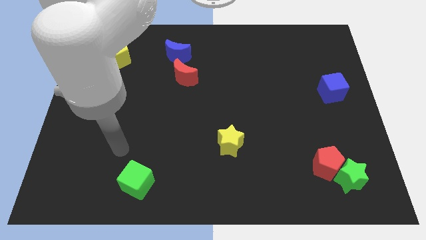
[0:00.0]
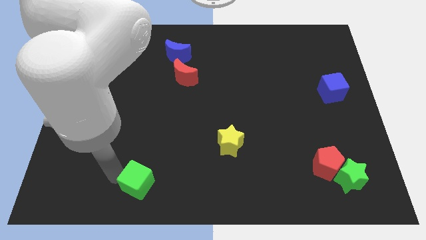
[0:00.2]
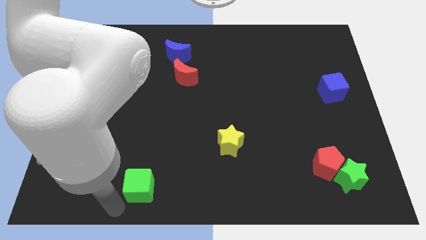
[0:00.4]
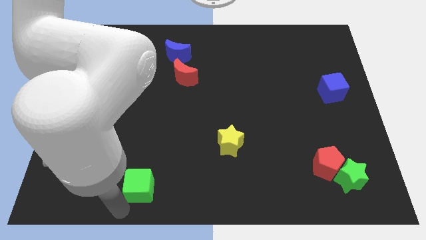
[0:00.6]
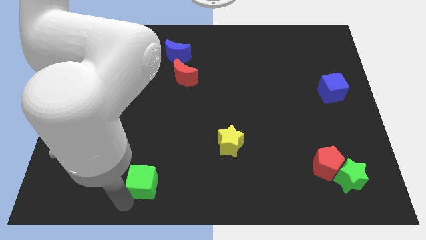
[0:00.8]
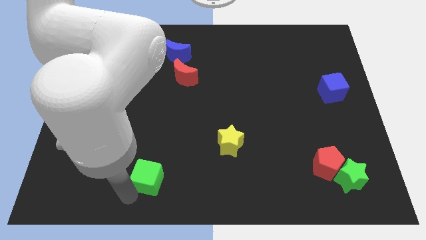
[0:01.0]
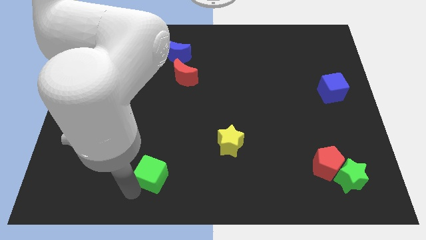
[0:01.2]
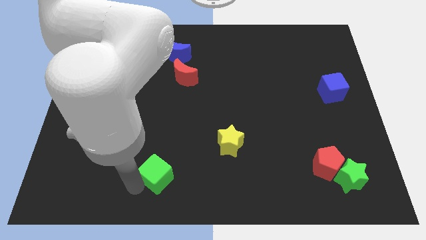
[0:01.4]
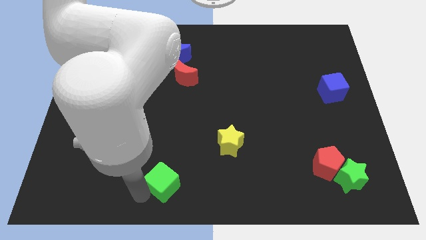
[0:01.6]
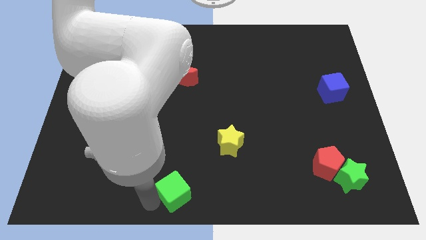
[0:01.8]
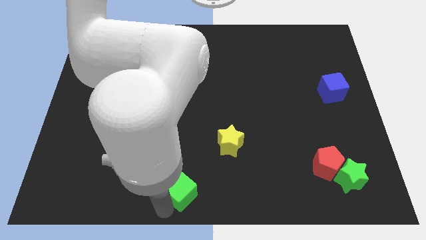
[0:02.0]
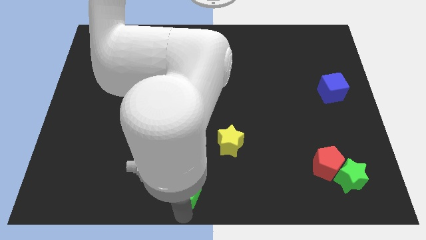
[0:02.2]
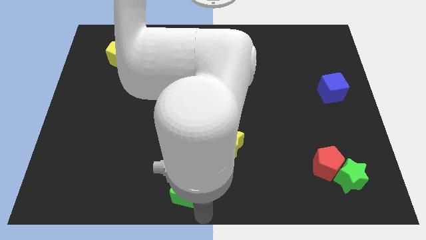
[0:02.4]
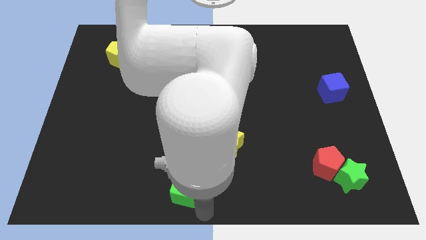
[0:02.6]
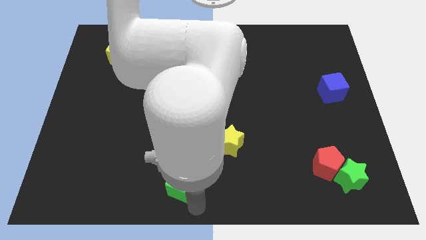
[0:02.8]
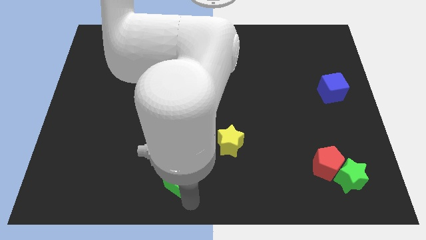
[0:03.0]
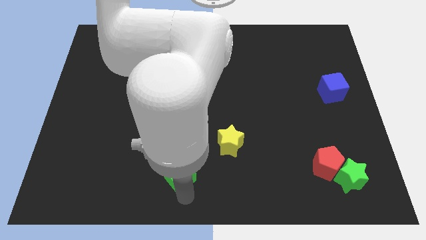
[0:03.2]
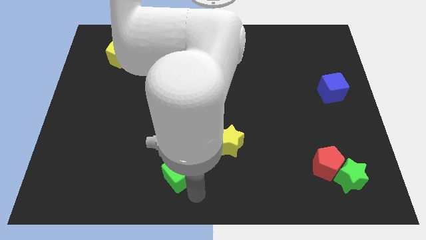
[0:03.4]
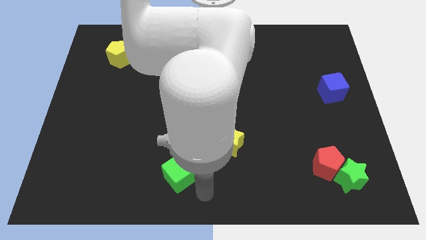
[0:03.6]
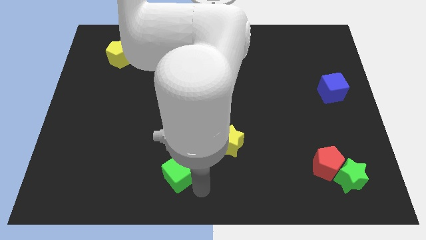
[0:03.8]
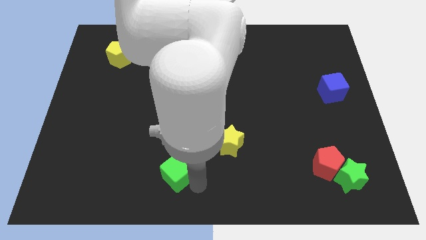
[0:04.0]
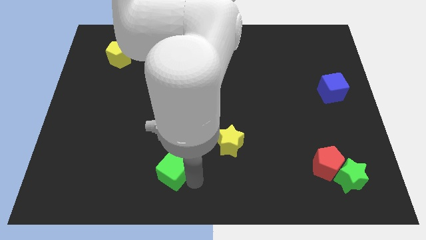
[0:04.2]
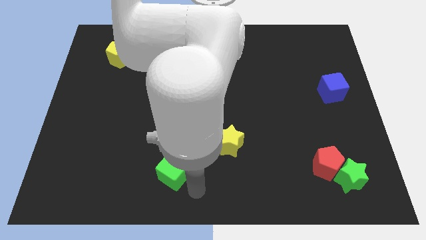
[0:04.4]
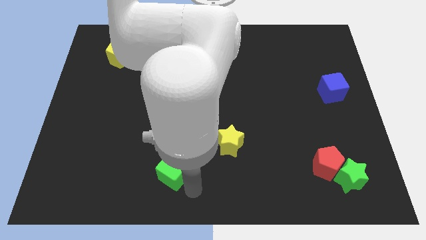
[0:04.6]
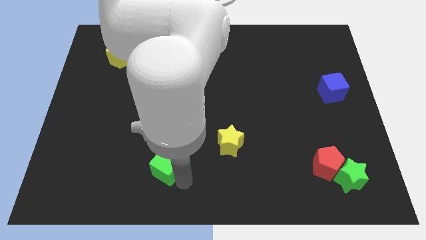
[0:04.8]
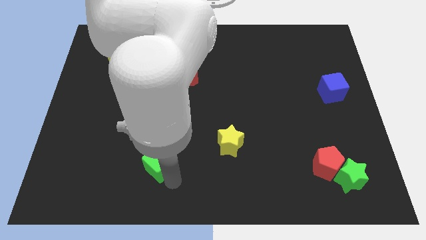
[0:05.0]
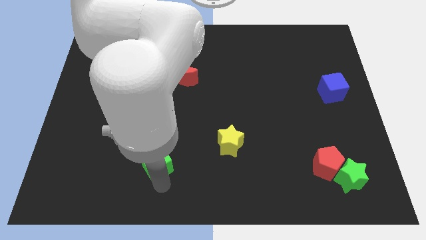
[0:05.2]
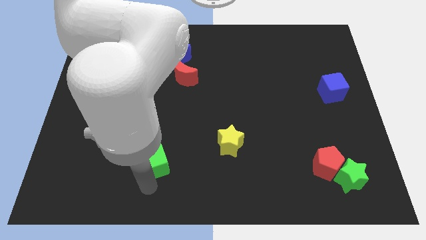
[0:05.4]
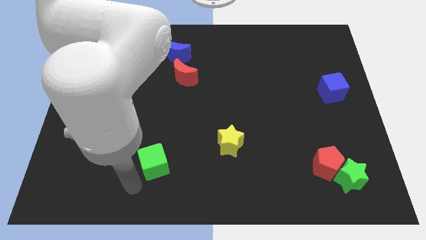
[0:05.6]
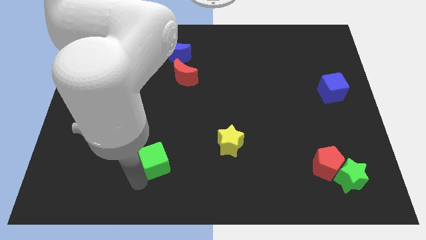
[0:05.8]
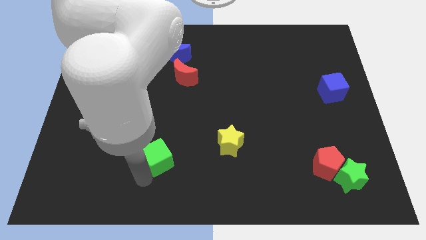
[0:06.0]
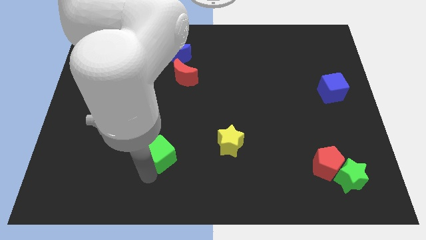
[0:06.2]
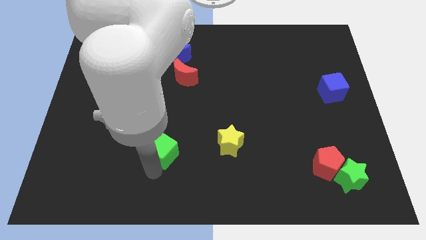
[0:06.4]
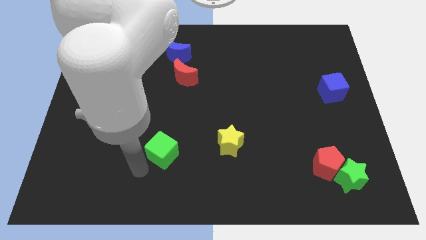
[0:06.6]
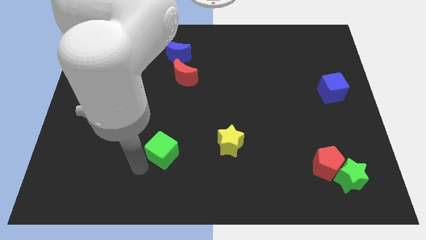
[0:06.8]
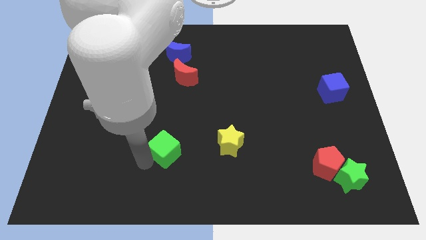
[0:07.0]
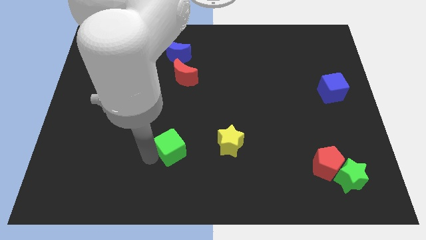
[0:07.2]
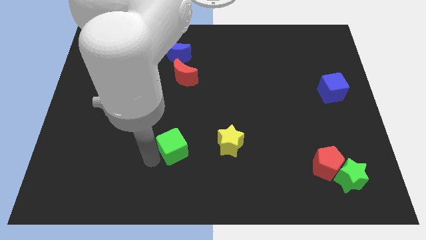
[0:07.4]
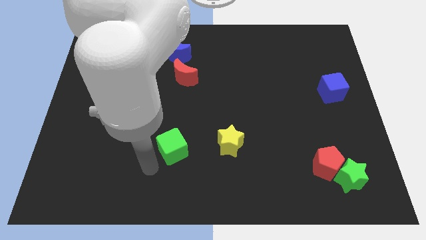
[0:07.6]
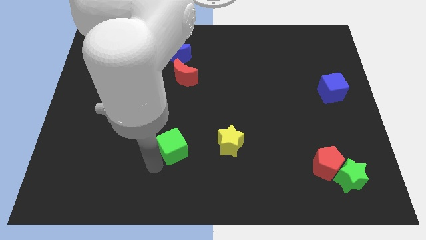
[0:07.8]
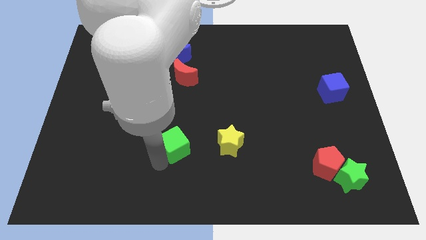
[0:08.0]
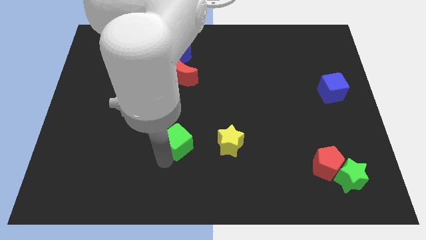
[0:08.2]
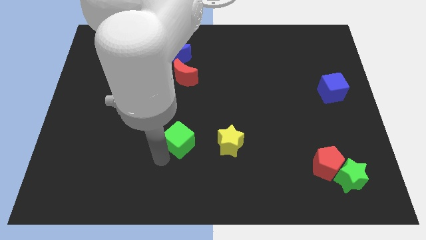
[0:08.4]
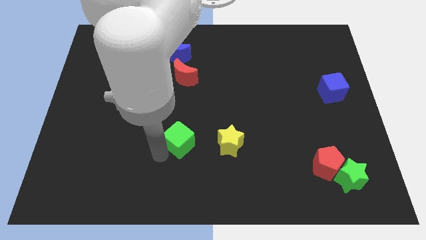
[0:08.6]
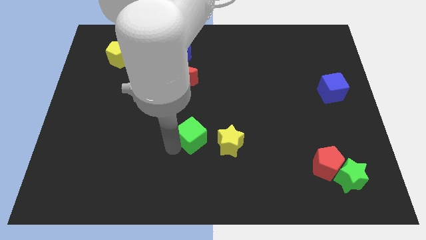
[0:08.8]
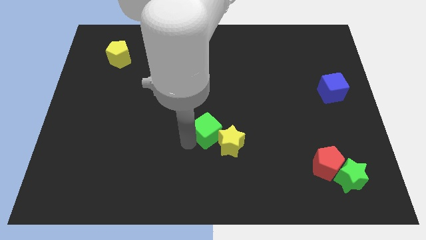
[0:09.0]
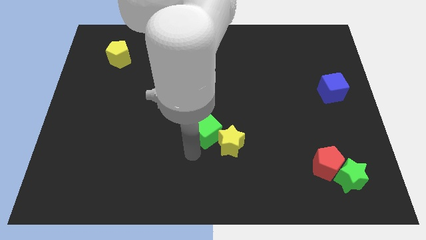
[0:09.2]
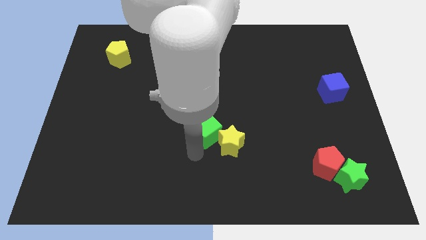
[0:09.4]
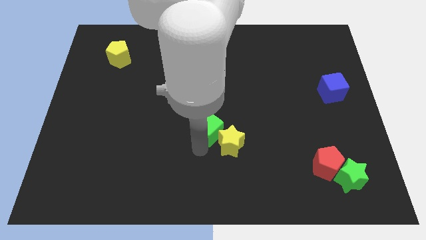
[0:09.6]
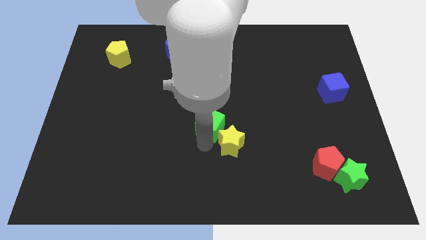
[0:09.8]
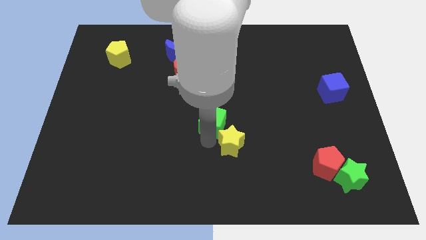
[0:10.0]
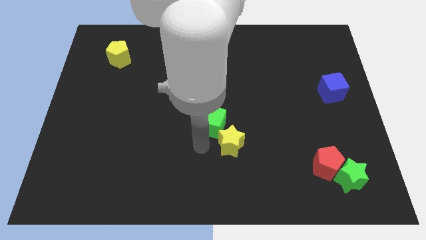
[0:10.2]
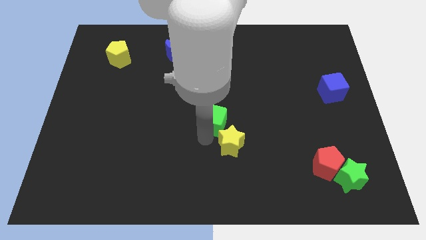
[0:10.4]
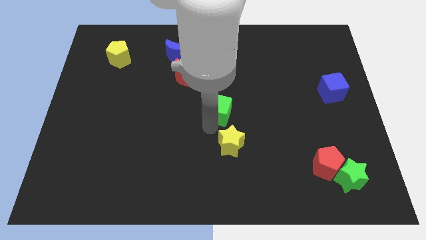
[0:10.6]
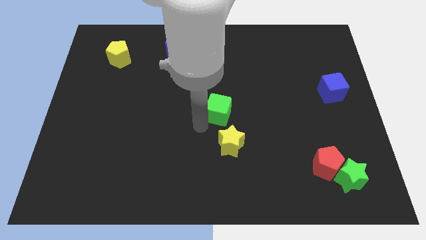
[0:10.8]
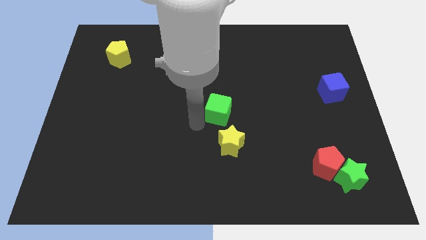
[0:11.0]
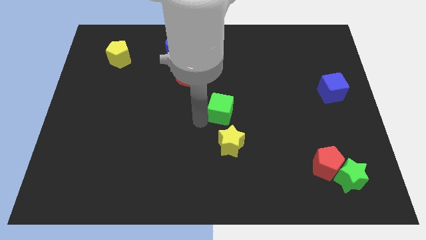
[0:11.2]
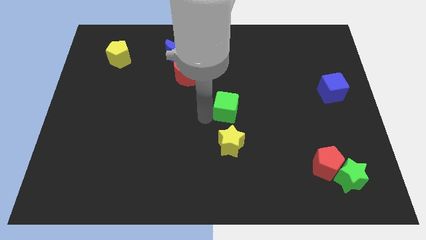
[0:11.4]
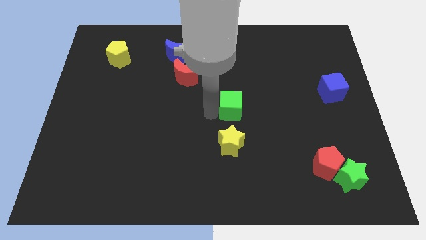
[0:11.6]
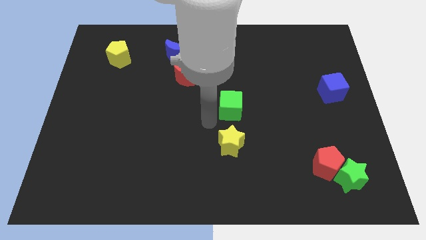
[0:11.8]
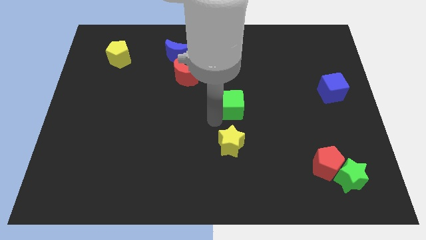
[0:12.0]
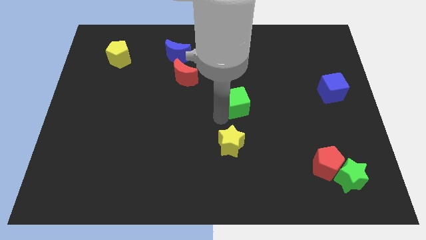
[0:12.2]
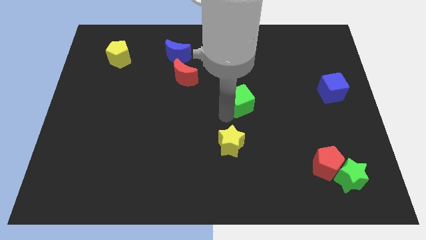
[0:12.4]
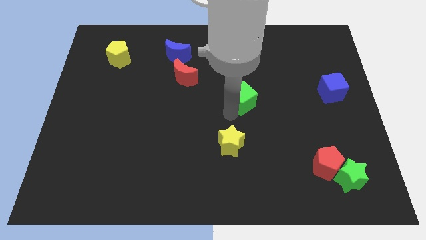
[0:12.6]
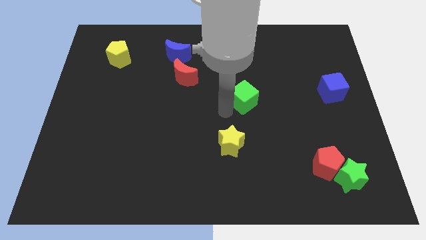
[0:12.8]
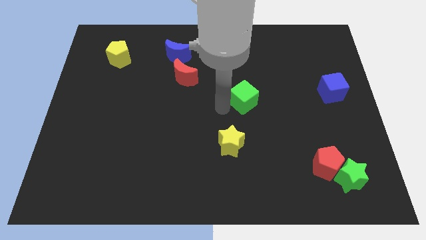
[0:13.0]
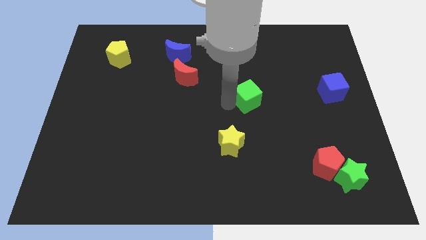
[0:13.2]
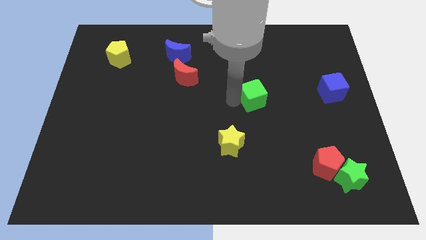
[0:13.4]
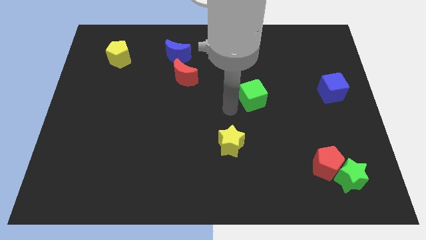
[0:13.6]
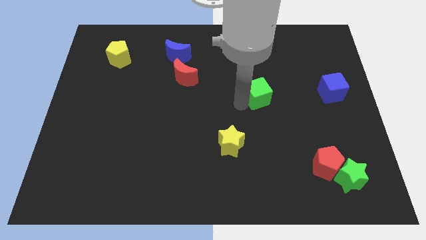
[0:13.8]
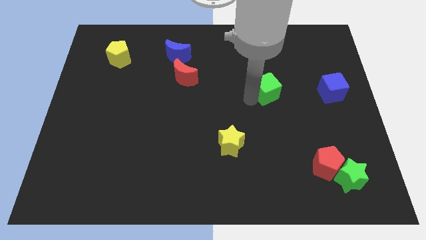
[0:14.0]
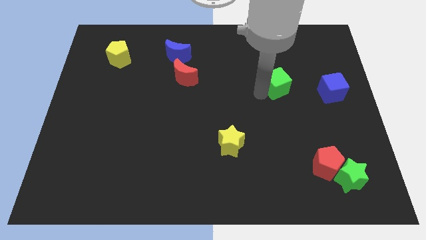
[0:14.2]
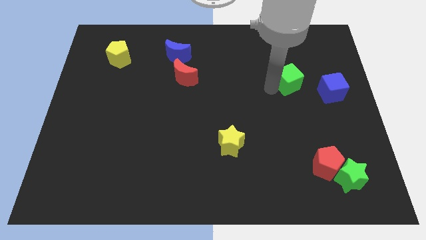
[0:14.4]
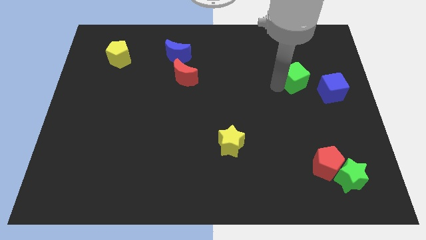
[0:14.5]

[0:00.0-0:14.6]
move the green cube to the top left side of the blue cube
